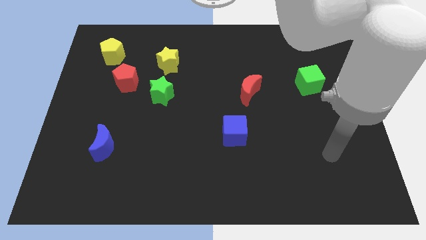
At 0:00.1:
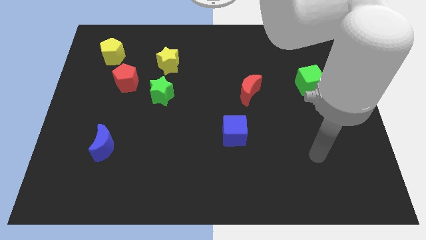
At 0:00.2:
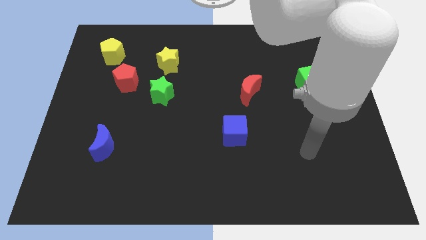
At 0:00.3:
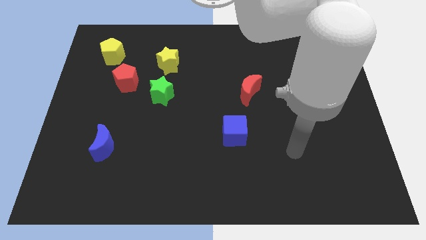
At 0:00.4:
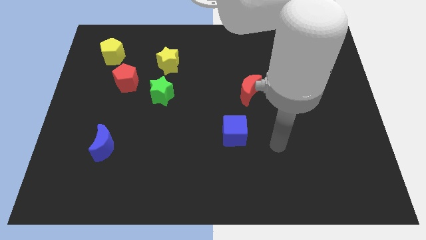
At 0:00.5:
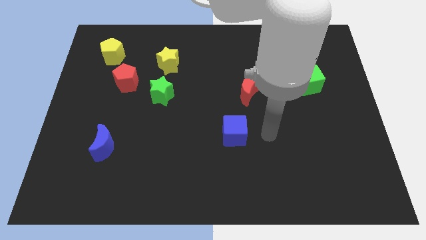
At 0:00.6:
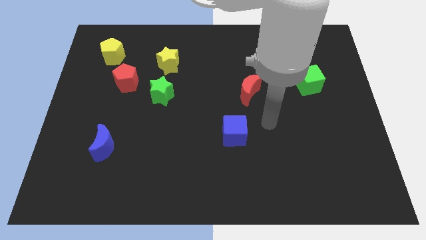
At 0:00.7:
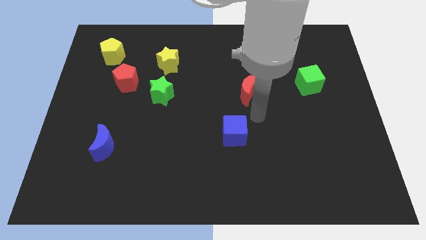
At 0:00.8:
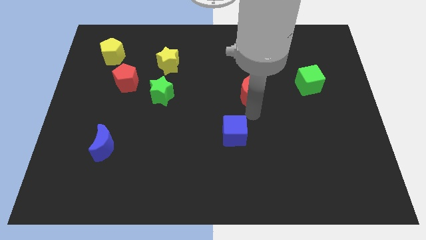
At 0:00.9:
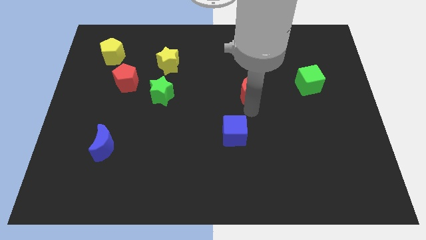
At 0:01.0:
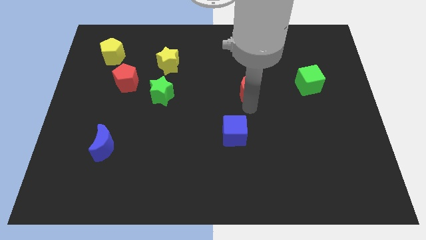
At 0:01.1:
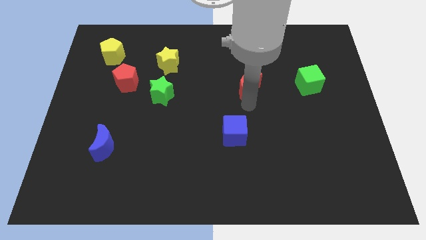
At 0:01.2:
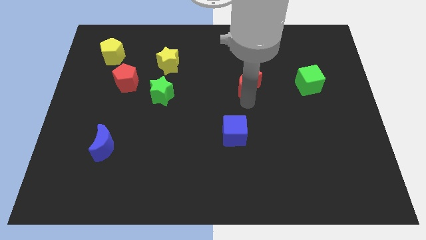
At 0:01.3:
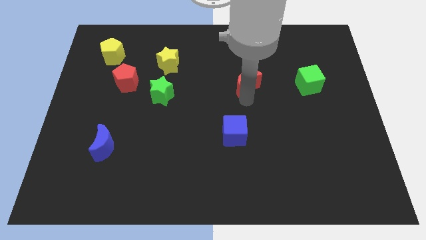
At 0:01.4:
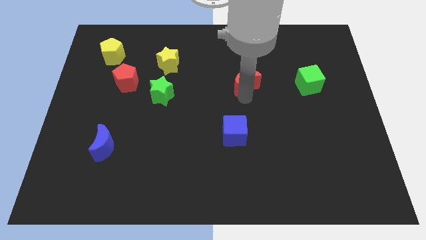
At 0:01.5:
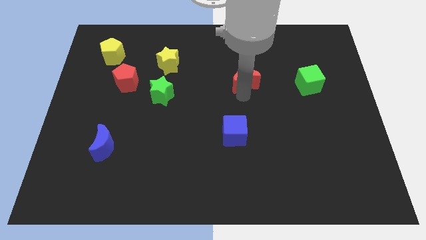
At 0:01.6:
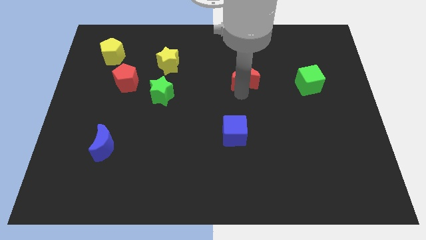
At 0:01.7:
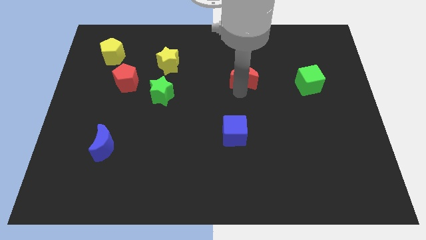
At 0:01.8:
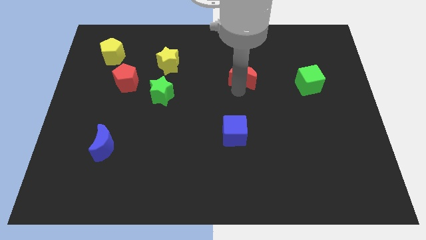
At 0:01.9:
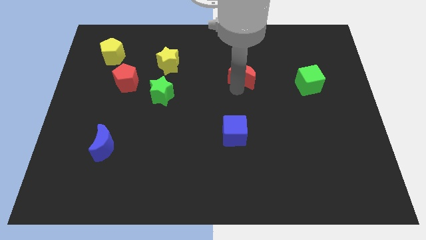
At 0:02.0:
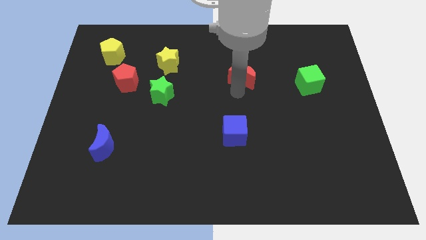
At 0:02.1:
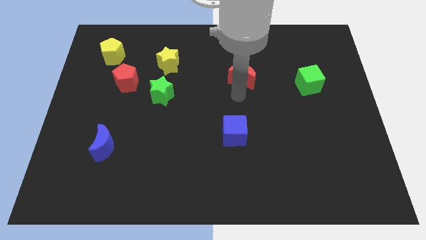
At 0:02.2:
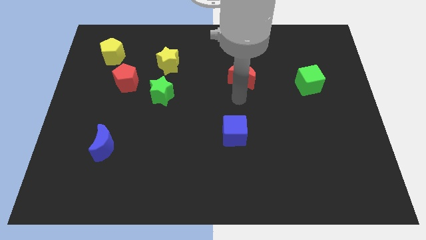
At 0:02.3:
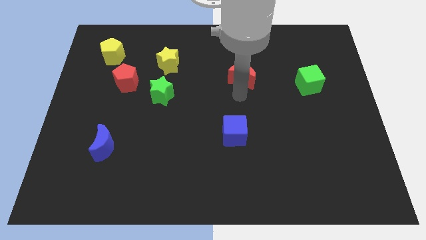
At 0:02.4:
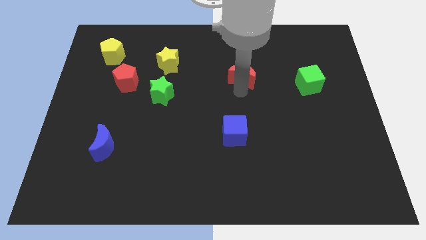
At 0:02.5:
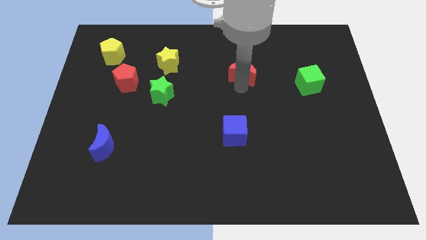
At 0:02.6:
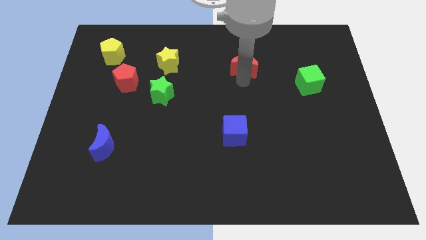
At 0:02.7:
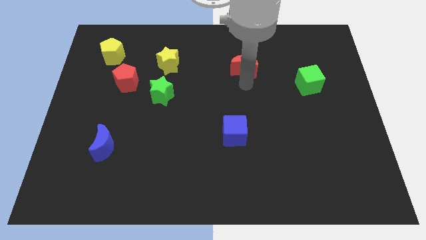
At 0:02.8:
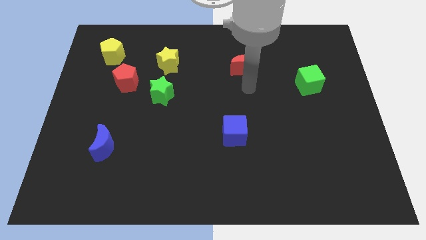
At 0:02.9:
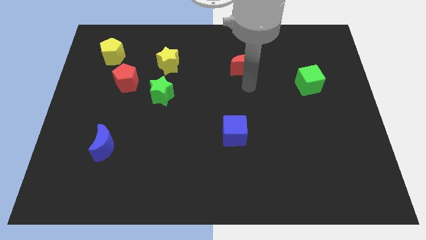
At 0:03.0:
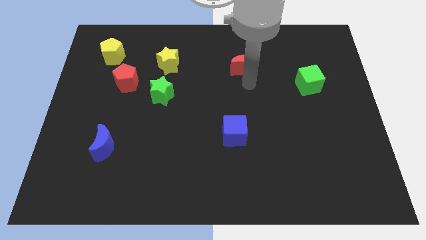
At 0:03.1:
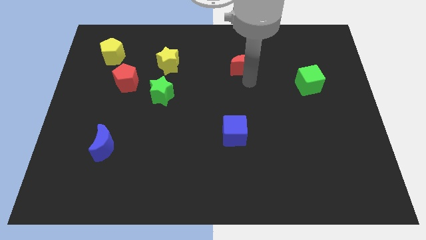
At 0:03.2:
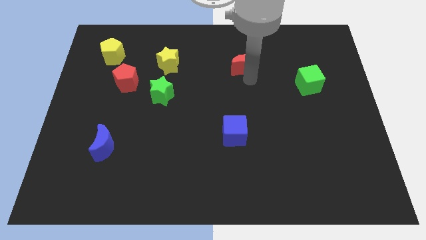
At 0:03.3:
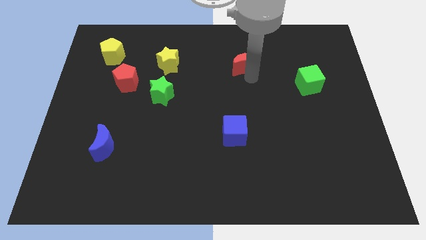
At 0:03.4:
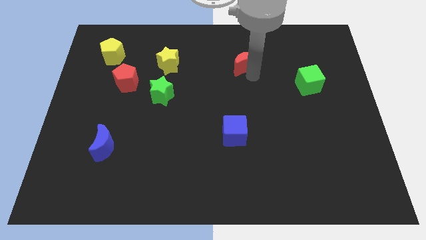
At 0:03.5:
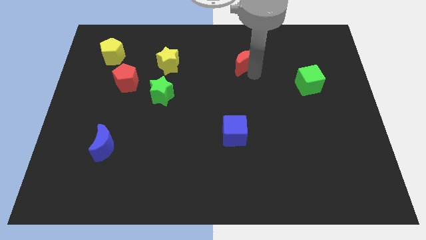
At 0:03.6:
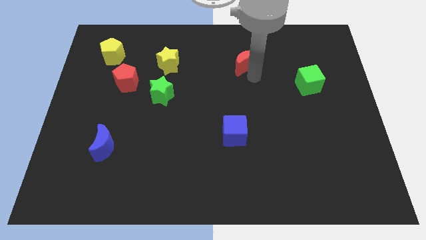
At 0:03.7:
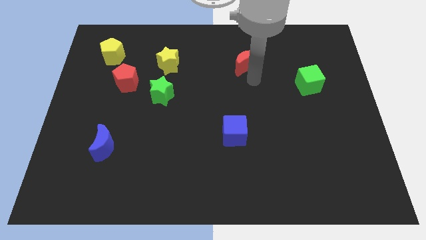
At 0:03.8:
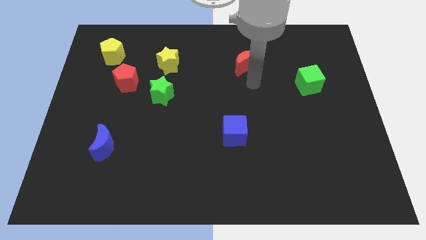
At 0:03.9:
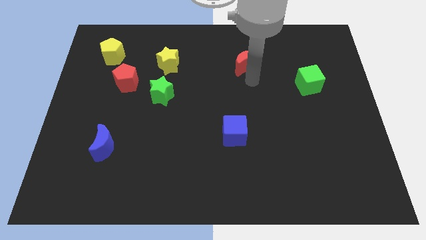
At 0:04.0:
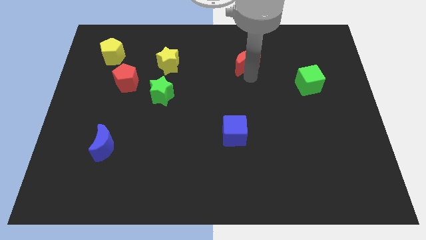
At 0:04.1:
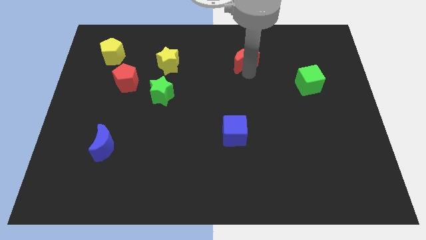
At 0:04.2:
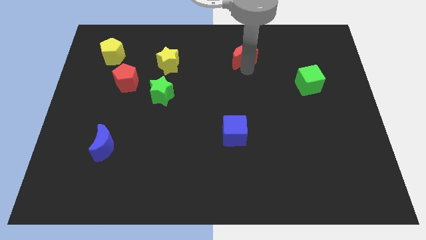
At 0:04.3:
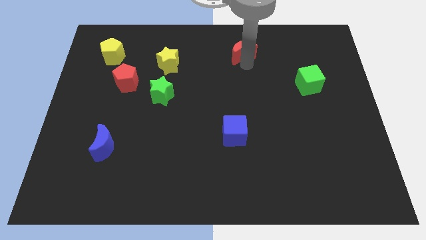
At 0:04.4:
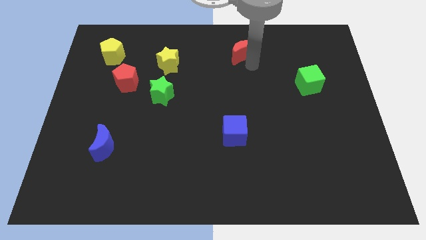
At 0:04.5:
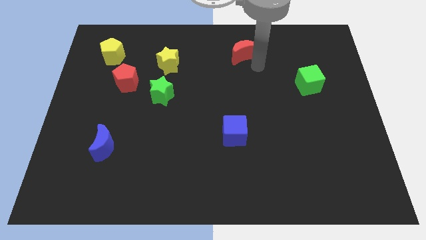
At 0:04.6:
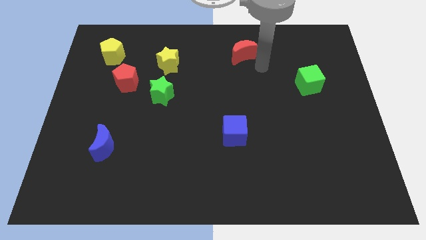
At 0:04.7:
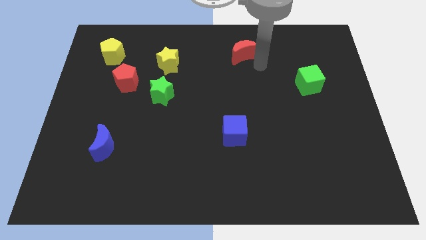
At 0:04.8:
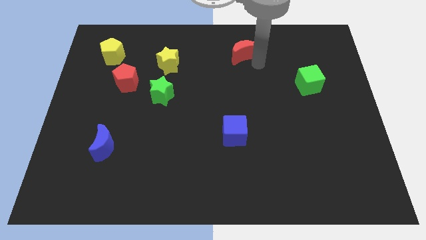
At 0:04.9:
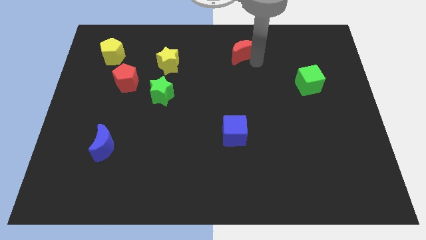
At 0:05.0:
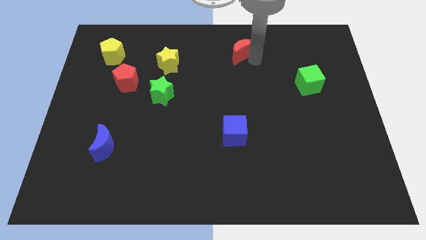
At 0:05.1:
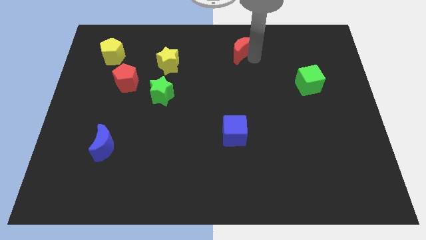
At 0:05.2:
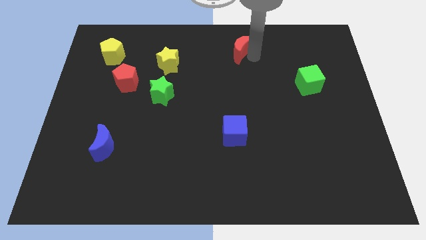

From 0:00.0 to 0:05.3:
push the red moon to the top
